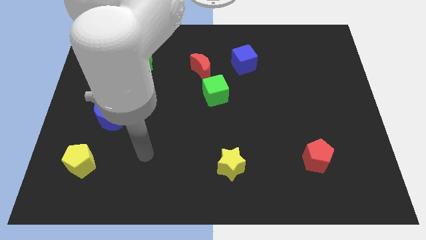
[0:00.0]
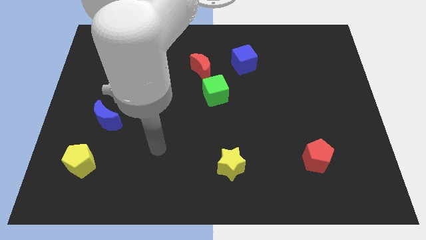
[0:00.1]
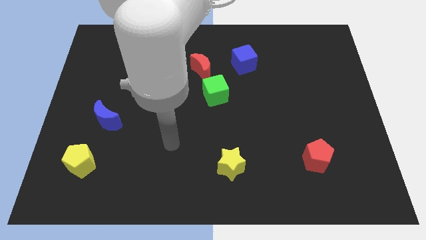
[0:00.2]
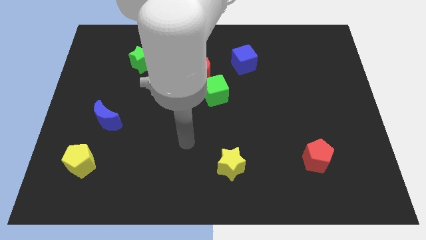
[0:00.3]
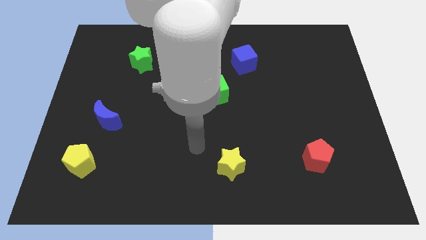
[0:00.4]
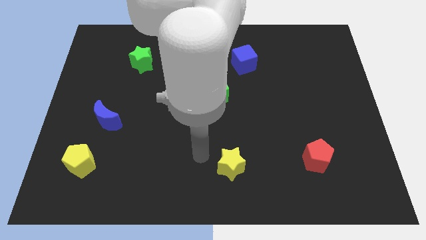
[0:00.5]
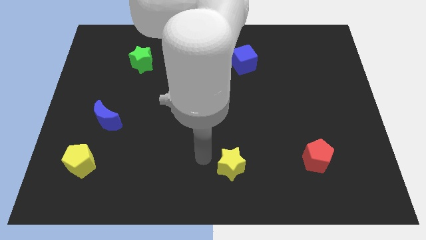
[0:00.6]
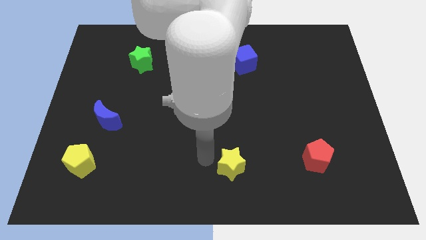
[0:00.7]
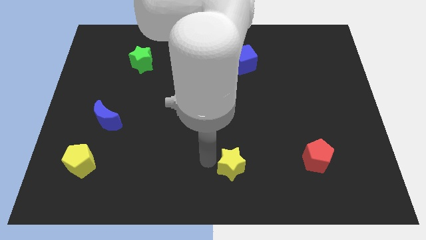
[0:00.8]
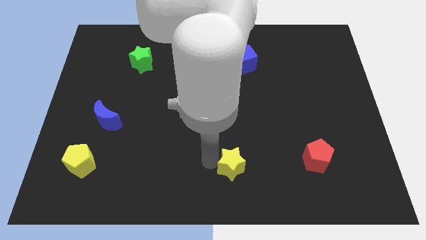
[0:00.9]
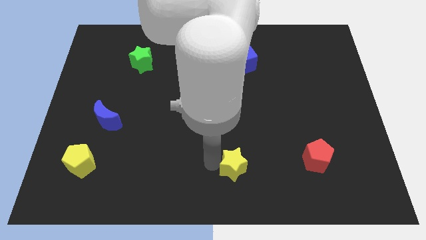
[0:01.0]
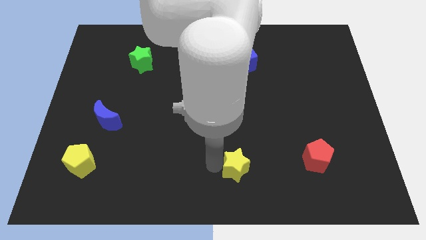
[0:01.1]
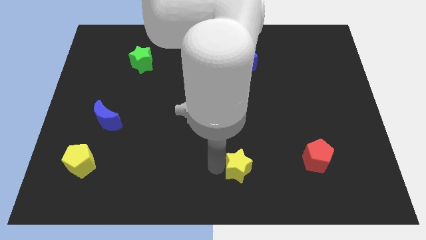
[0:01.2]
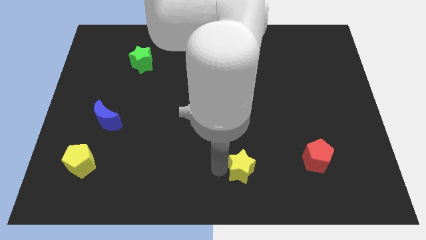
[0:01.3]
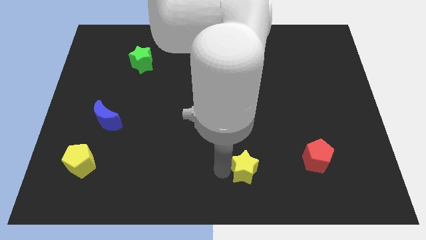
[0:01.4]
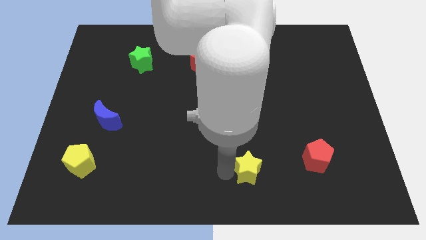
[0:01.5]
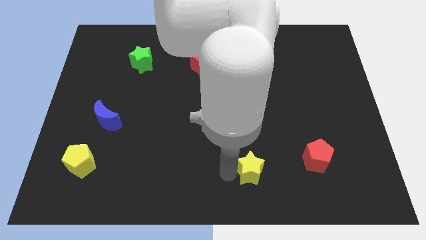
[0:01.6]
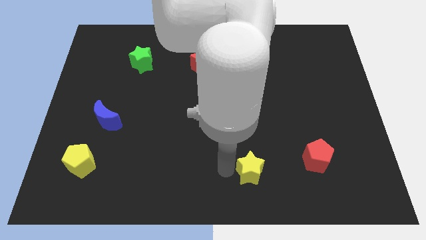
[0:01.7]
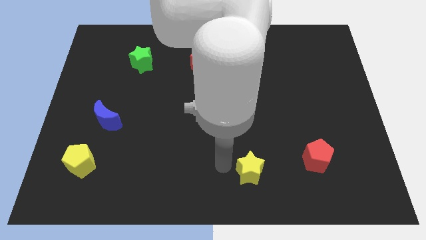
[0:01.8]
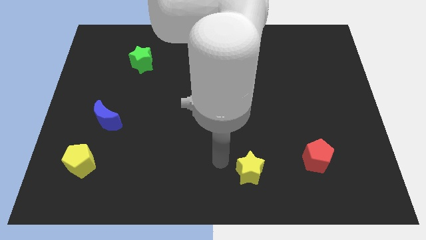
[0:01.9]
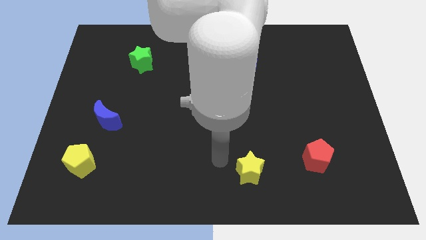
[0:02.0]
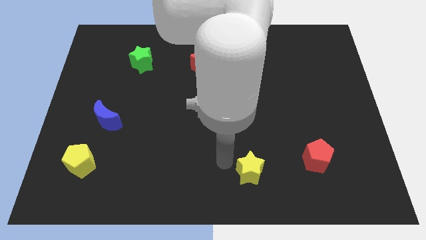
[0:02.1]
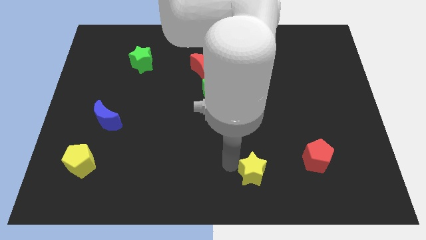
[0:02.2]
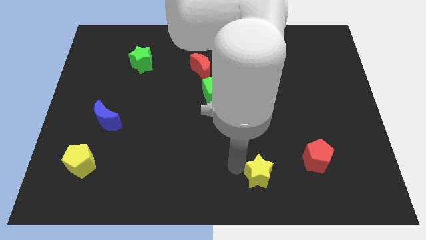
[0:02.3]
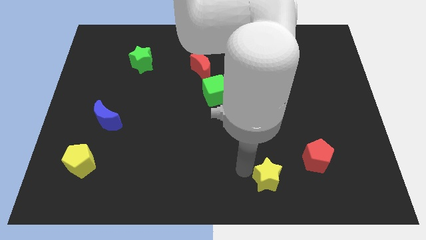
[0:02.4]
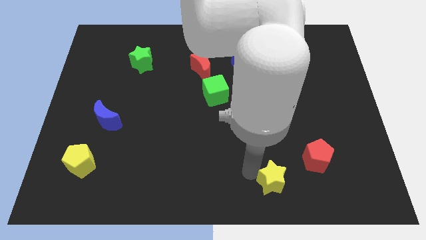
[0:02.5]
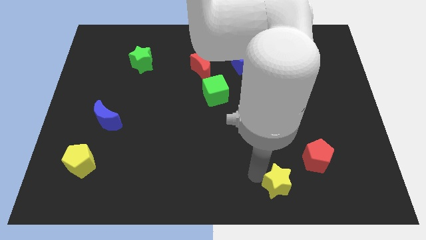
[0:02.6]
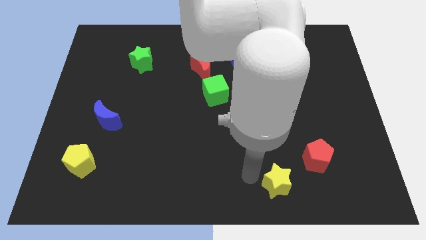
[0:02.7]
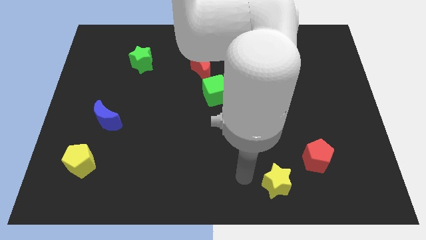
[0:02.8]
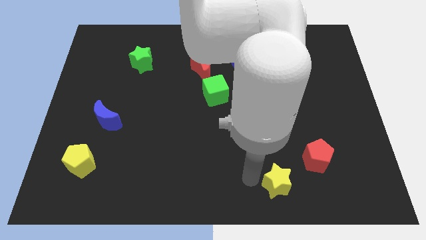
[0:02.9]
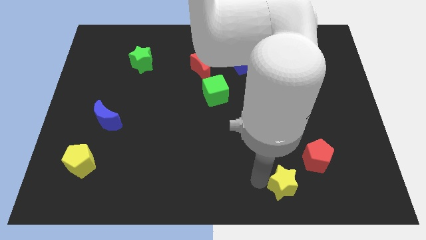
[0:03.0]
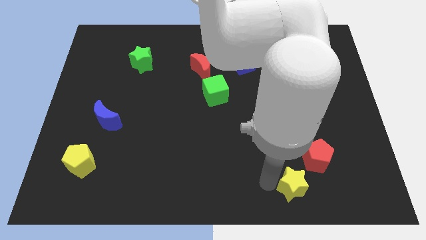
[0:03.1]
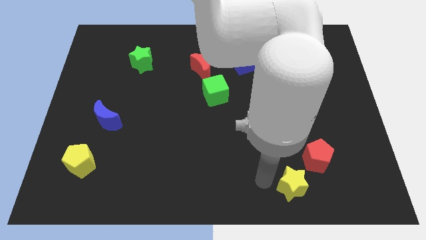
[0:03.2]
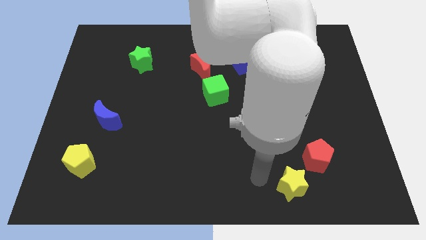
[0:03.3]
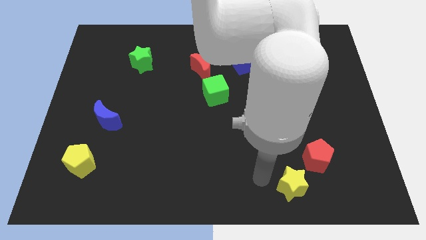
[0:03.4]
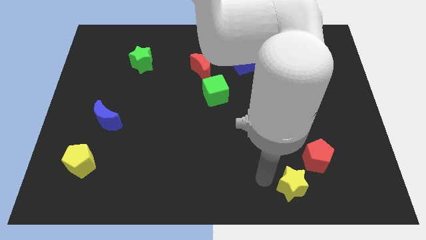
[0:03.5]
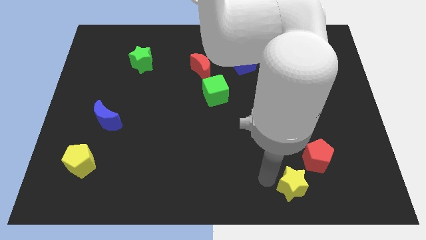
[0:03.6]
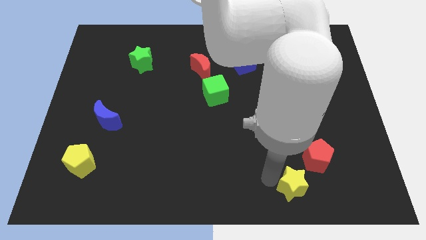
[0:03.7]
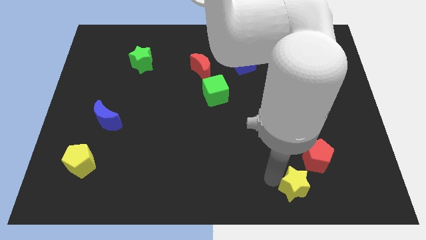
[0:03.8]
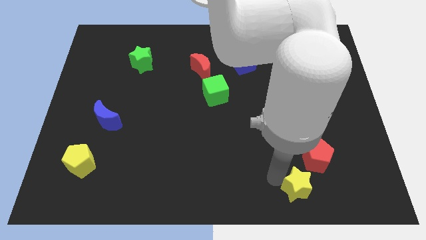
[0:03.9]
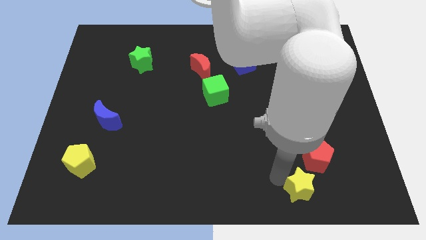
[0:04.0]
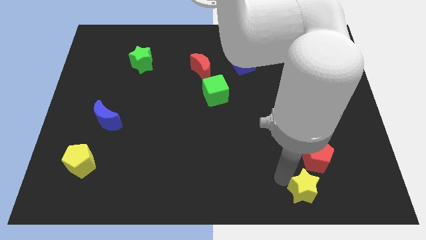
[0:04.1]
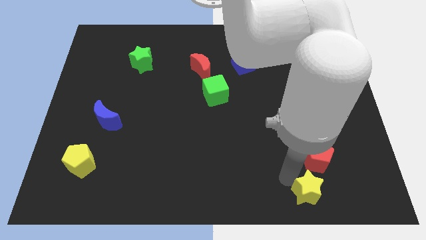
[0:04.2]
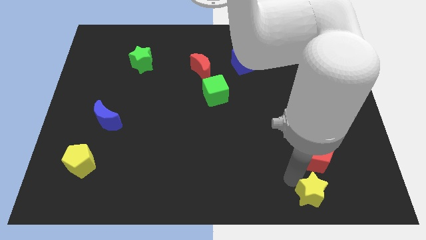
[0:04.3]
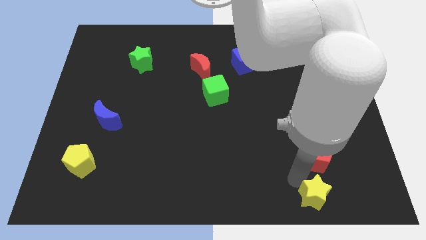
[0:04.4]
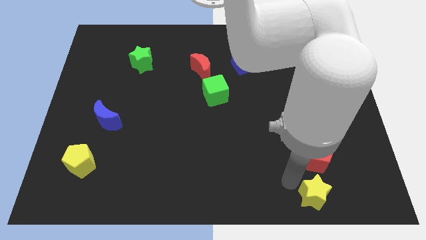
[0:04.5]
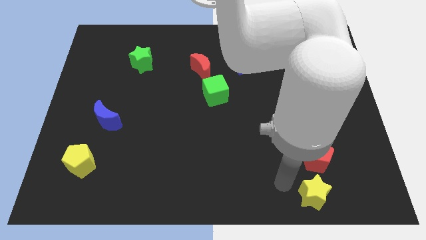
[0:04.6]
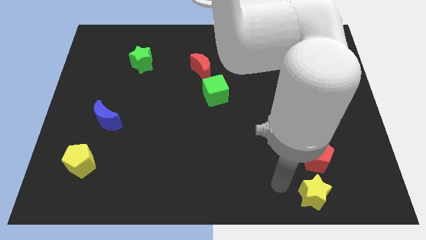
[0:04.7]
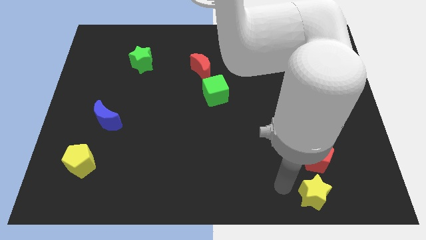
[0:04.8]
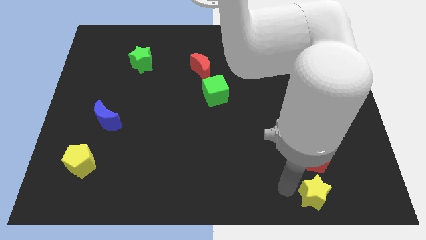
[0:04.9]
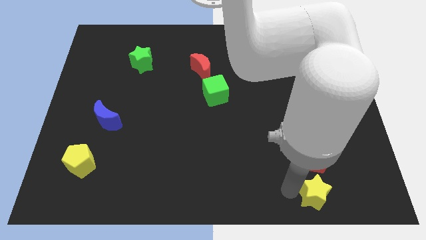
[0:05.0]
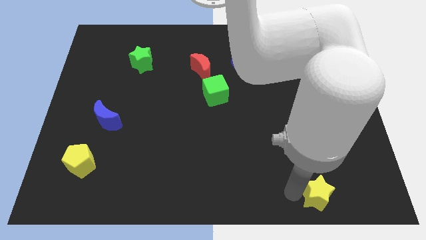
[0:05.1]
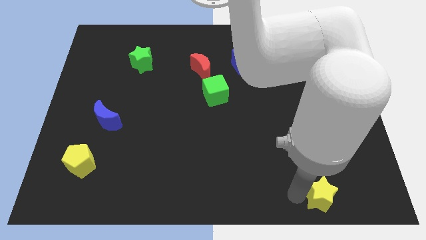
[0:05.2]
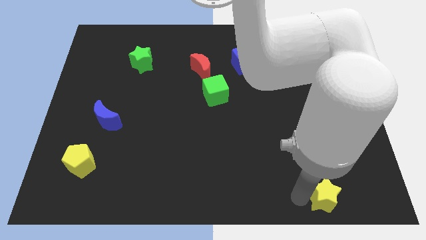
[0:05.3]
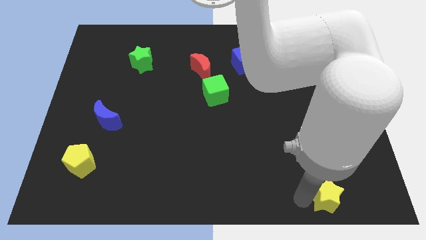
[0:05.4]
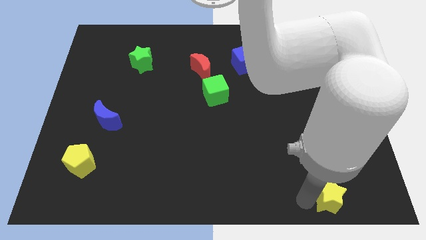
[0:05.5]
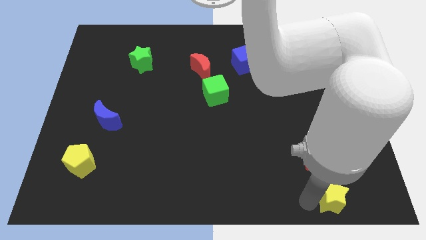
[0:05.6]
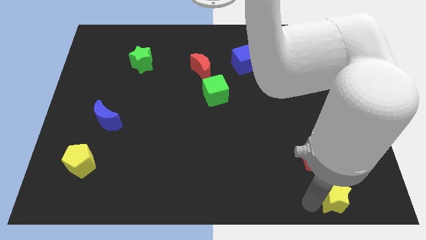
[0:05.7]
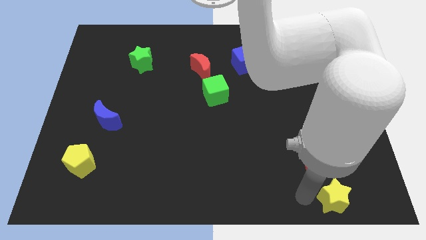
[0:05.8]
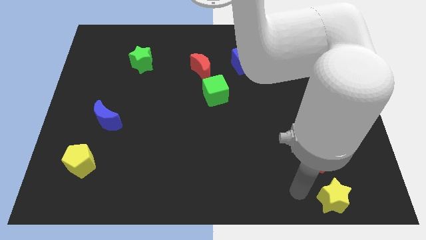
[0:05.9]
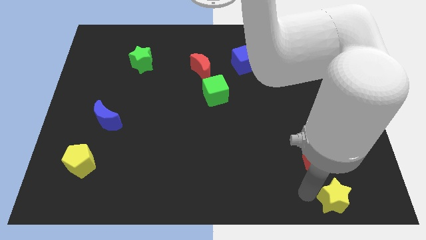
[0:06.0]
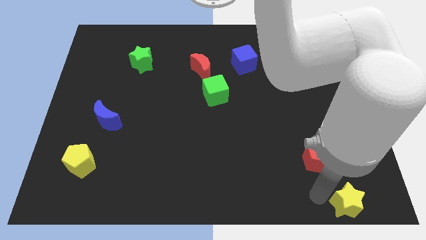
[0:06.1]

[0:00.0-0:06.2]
move the yellow star to the bottom right corner
